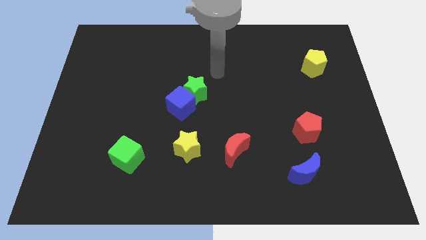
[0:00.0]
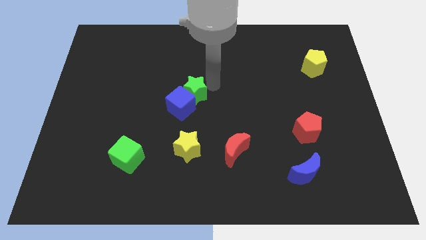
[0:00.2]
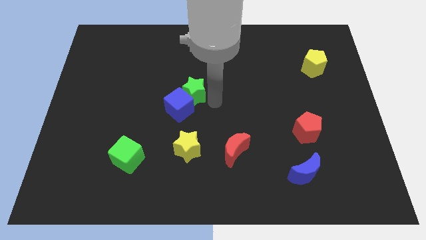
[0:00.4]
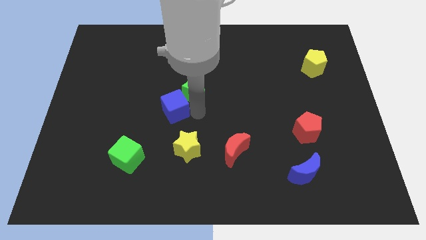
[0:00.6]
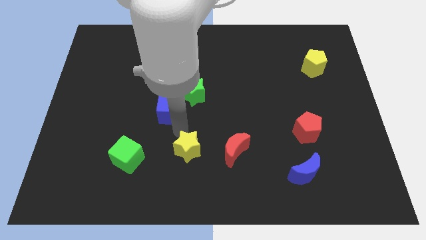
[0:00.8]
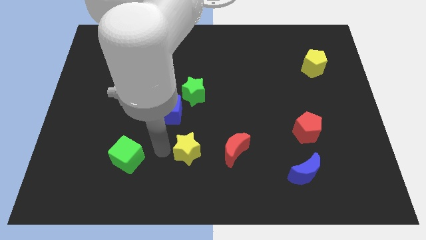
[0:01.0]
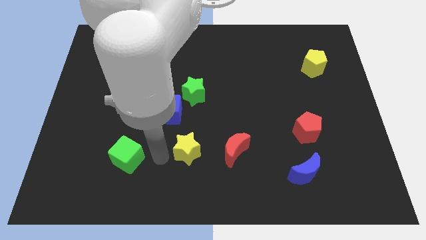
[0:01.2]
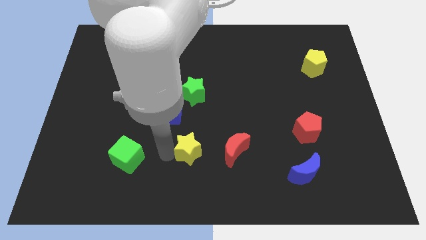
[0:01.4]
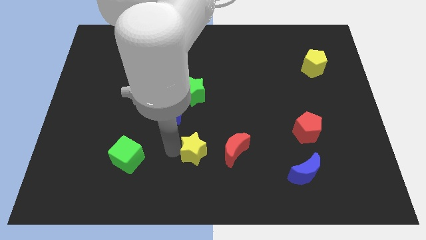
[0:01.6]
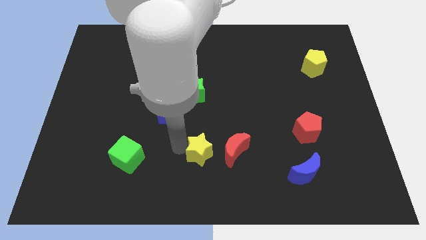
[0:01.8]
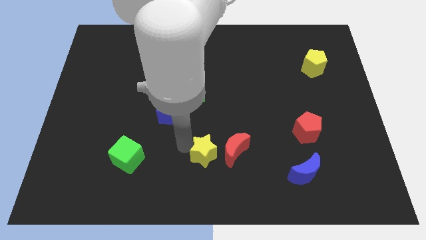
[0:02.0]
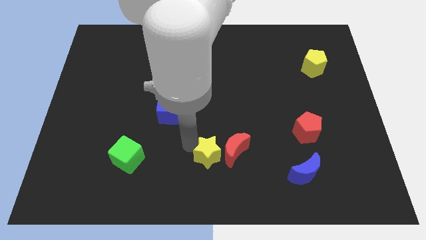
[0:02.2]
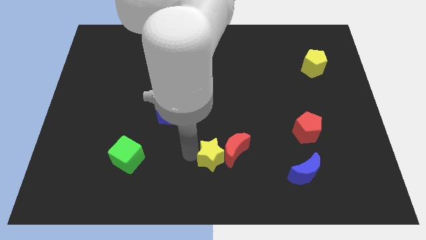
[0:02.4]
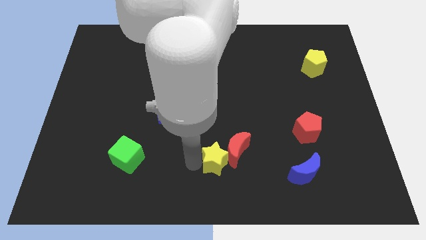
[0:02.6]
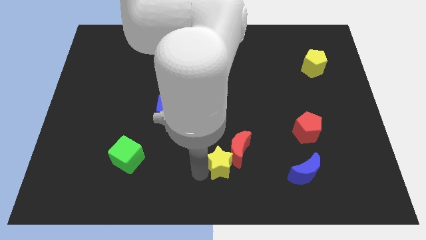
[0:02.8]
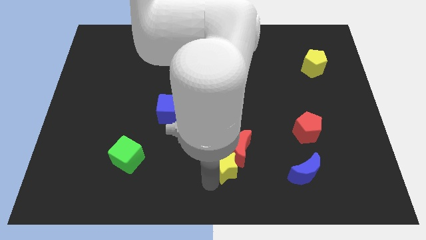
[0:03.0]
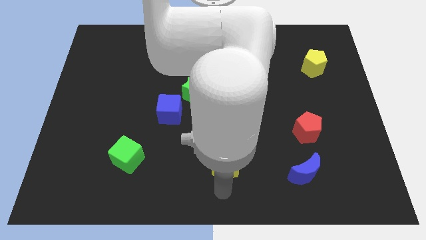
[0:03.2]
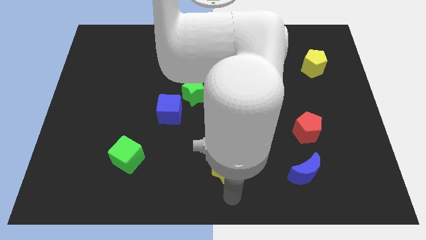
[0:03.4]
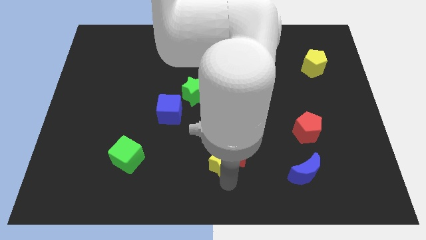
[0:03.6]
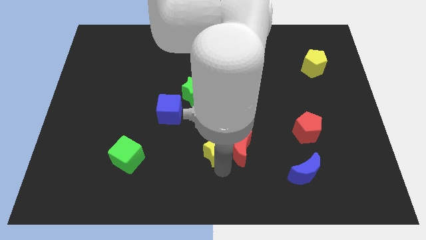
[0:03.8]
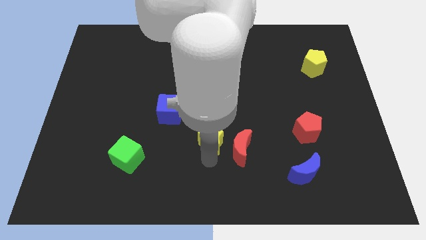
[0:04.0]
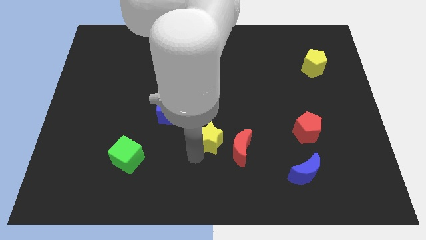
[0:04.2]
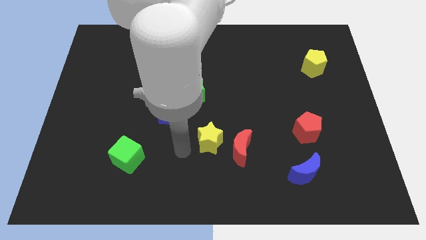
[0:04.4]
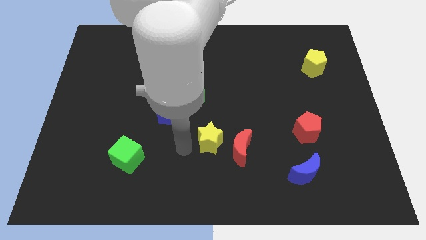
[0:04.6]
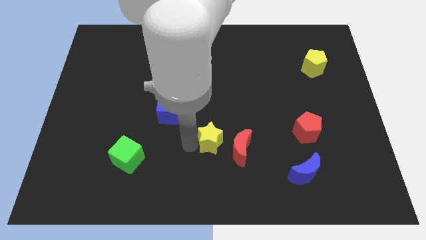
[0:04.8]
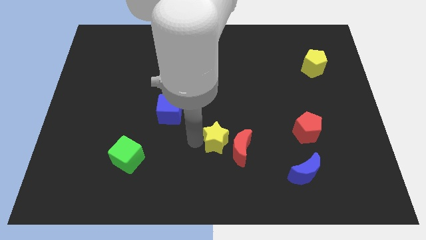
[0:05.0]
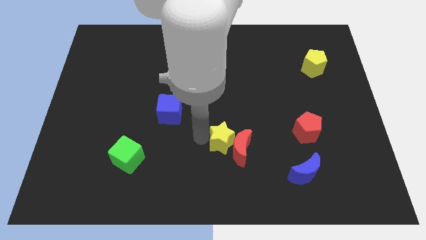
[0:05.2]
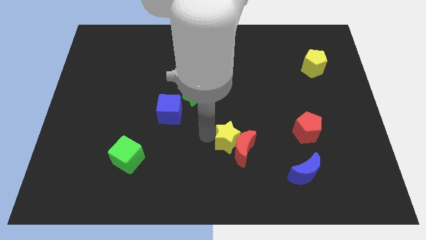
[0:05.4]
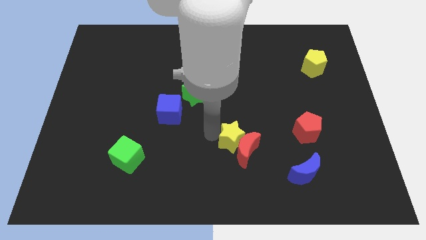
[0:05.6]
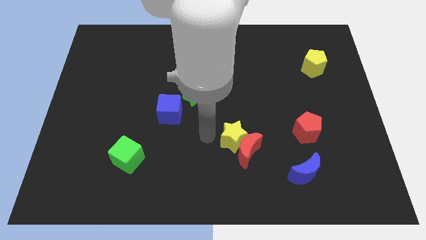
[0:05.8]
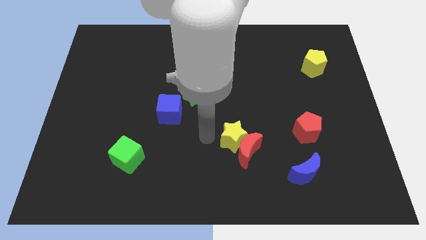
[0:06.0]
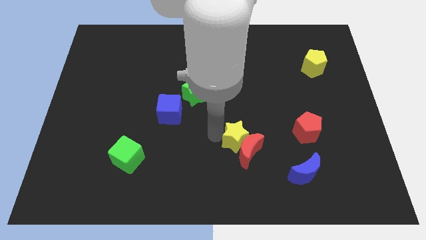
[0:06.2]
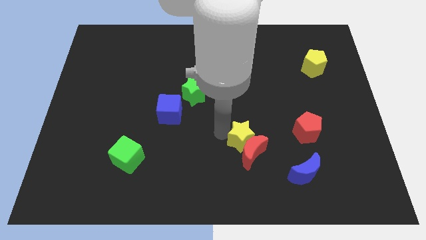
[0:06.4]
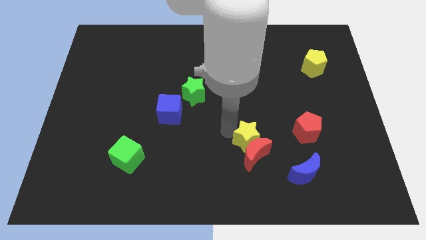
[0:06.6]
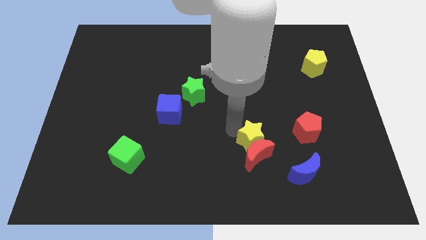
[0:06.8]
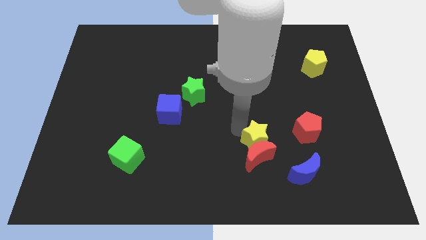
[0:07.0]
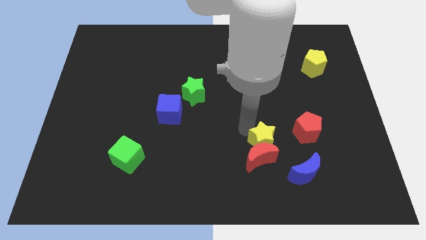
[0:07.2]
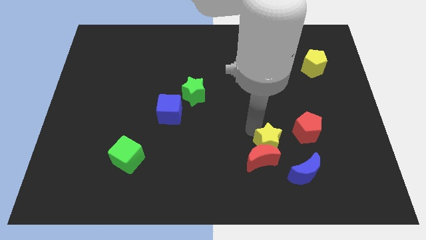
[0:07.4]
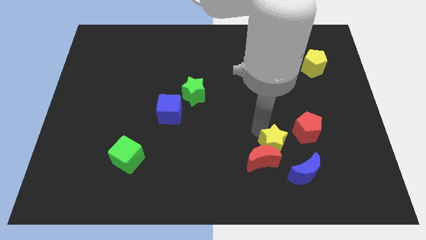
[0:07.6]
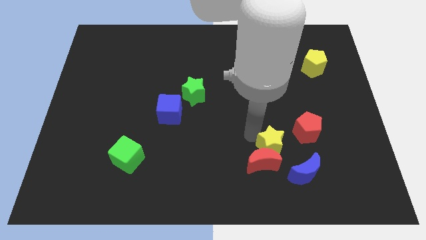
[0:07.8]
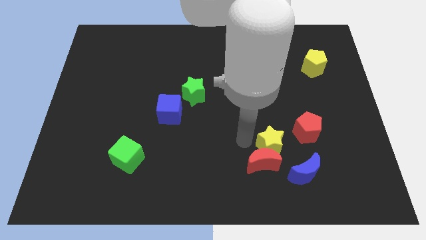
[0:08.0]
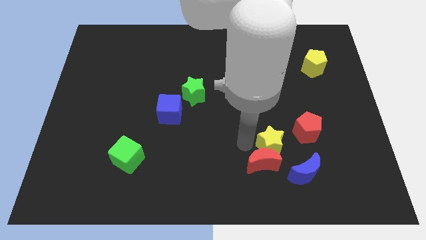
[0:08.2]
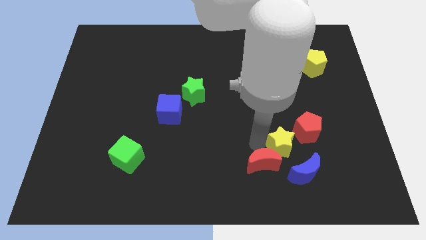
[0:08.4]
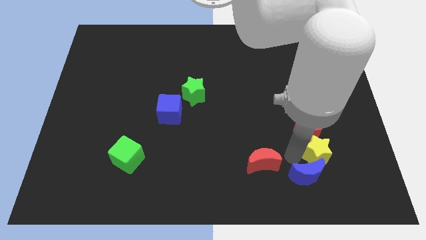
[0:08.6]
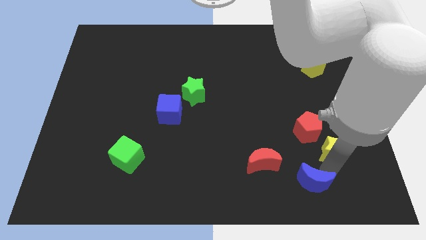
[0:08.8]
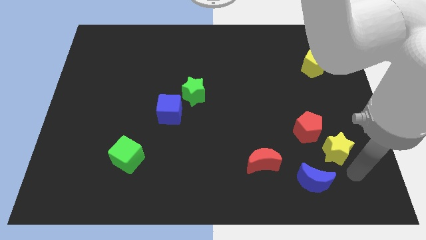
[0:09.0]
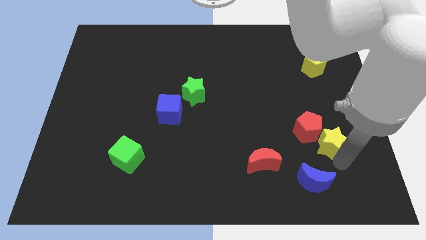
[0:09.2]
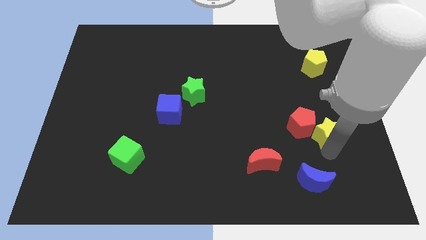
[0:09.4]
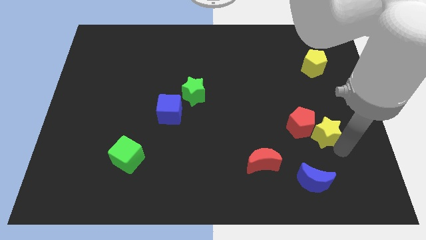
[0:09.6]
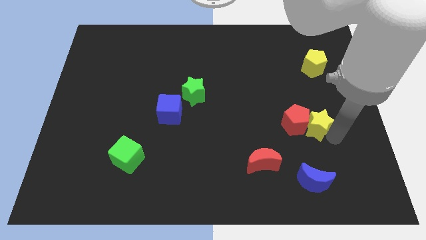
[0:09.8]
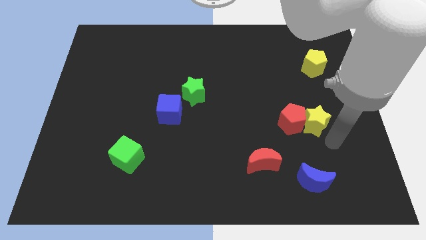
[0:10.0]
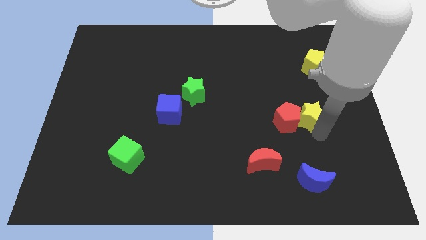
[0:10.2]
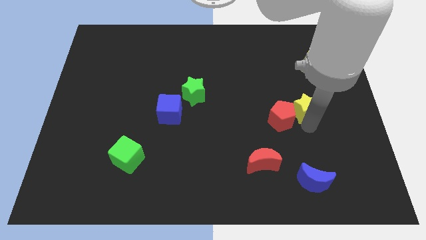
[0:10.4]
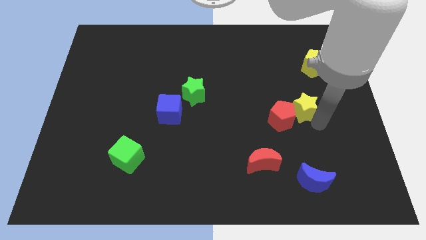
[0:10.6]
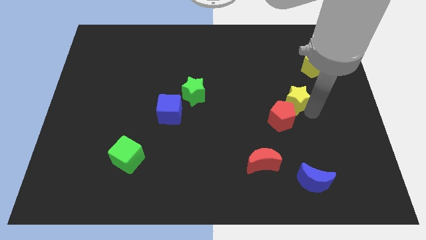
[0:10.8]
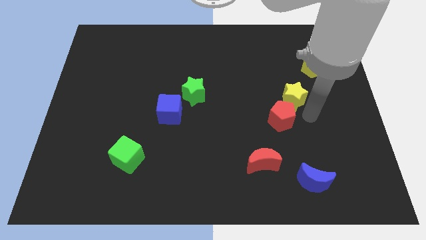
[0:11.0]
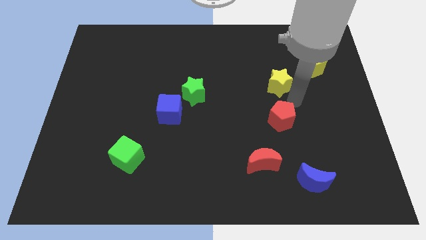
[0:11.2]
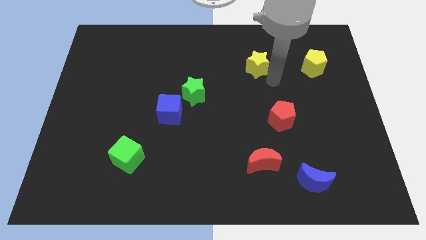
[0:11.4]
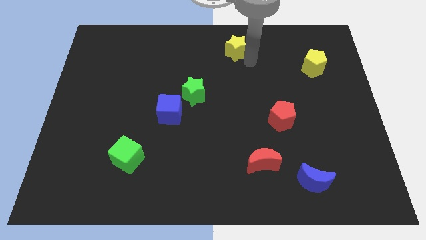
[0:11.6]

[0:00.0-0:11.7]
push the yellow star to the top side

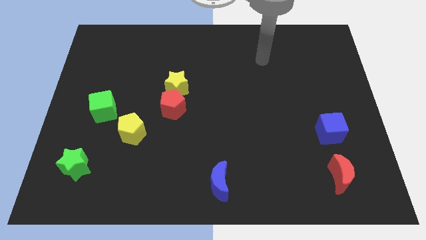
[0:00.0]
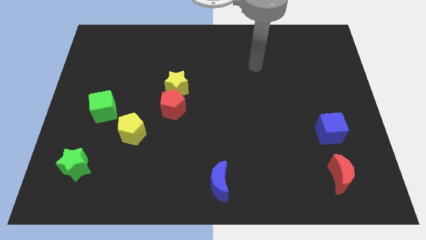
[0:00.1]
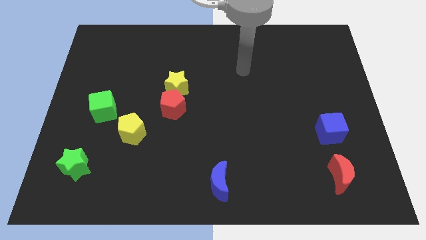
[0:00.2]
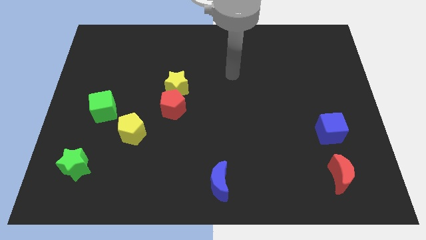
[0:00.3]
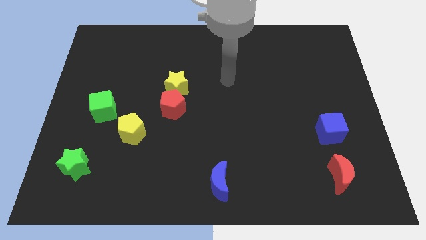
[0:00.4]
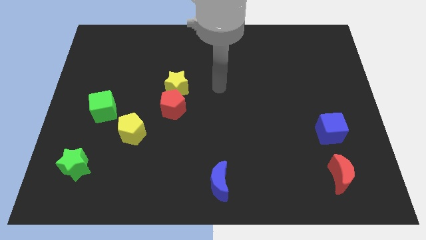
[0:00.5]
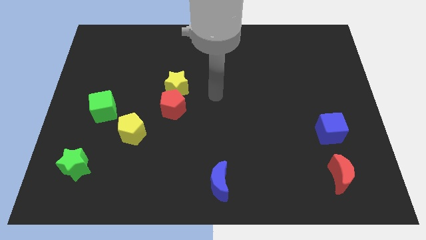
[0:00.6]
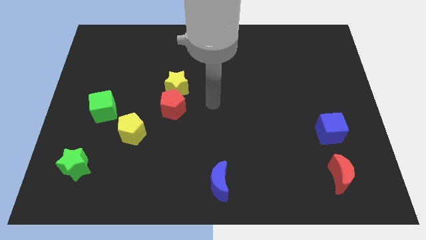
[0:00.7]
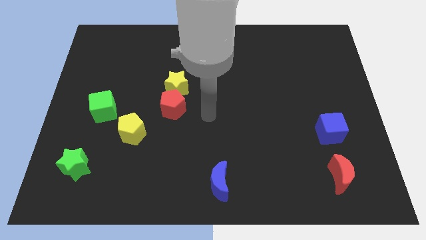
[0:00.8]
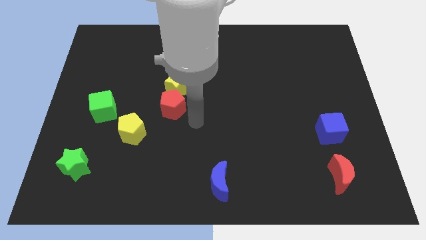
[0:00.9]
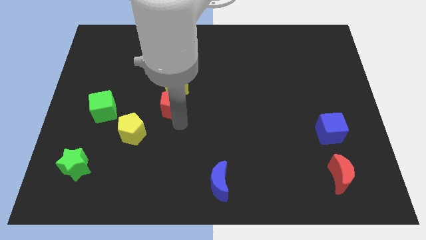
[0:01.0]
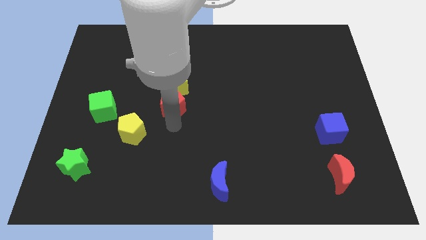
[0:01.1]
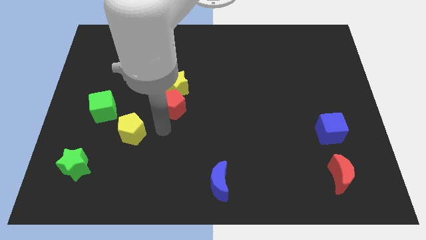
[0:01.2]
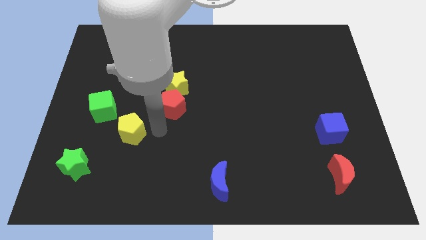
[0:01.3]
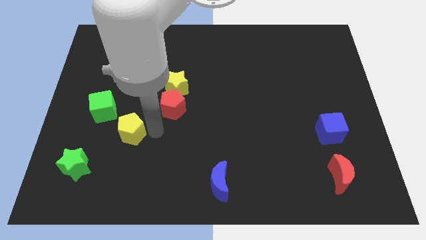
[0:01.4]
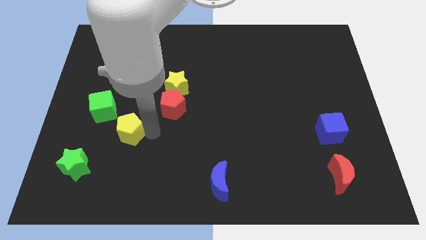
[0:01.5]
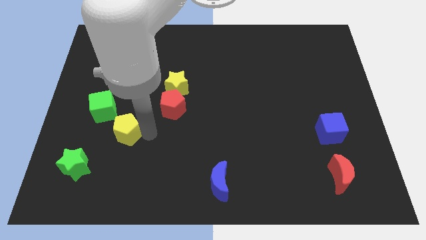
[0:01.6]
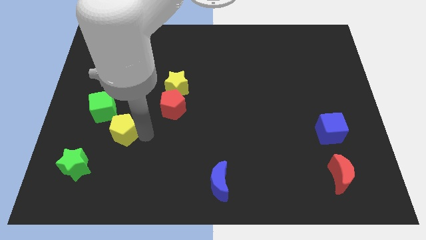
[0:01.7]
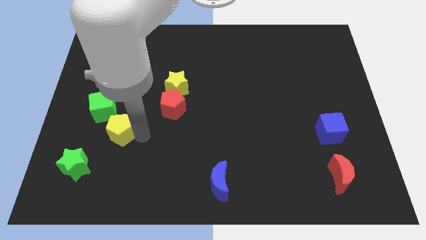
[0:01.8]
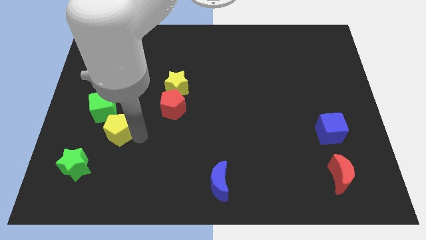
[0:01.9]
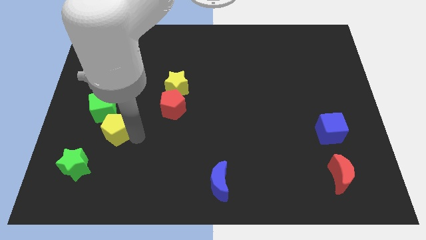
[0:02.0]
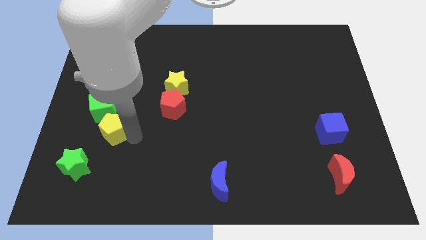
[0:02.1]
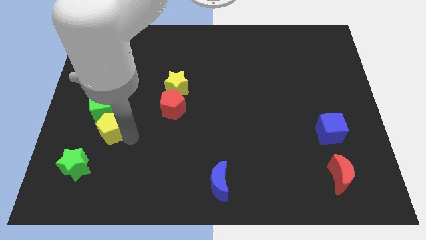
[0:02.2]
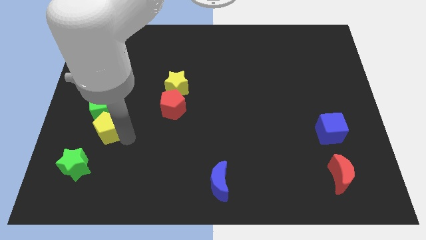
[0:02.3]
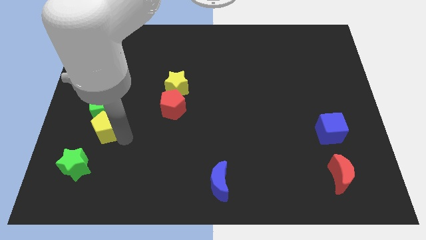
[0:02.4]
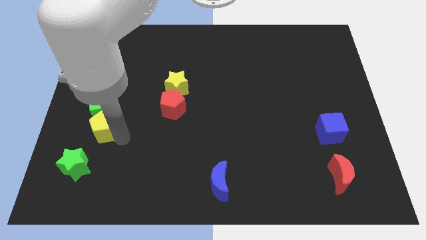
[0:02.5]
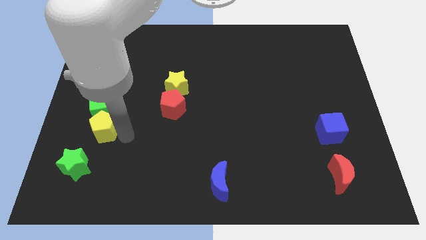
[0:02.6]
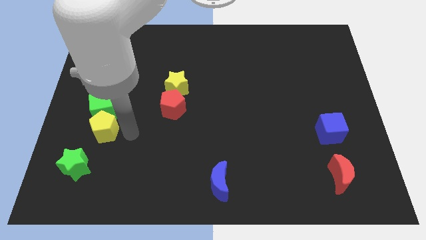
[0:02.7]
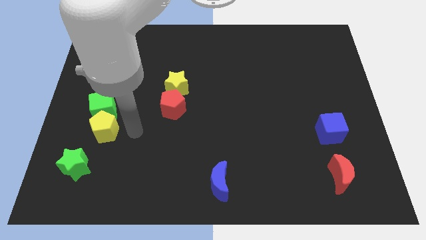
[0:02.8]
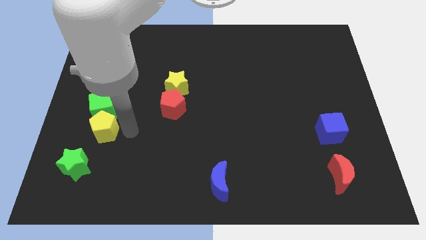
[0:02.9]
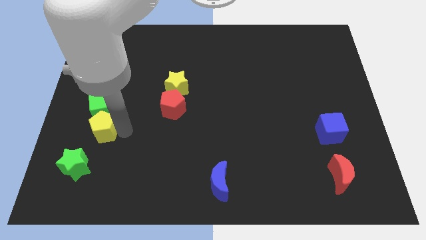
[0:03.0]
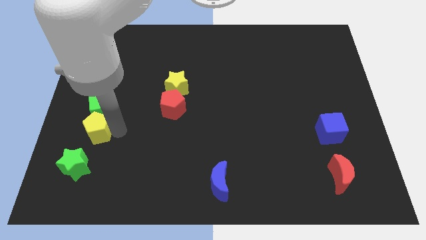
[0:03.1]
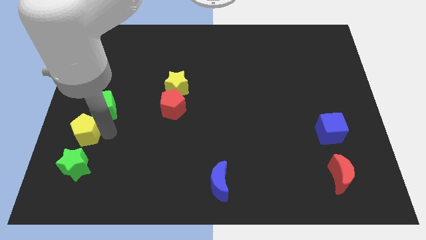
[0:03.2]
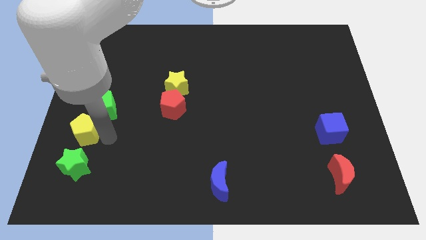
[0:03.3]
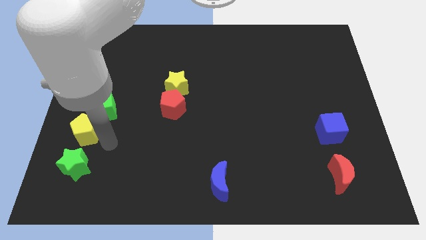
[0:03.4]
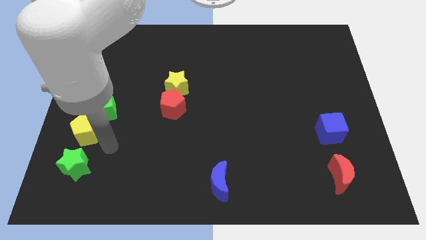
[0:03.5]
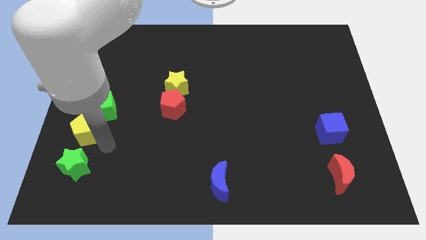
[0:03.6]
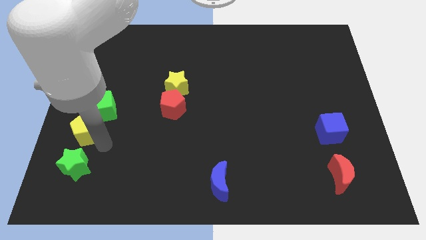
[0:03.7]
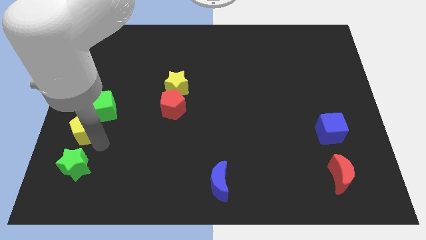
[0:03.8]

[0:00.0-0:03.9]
move the yellow pentagon to the center left
